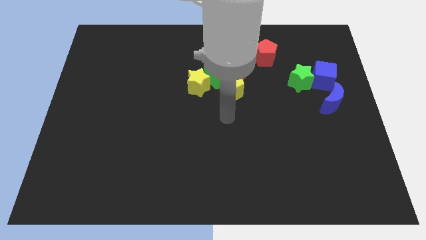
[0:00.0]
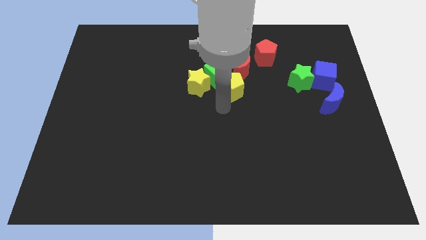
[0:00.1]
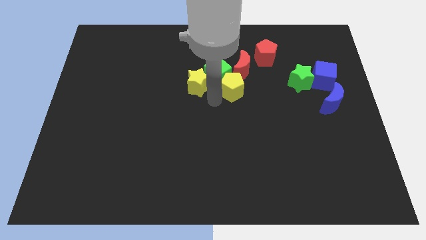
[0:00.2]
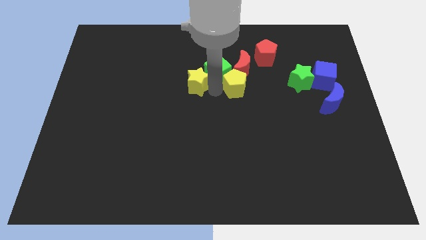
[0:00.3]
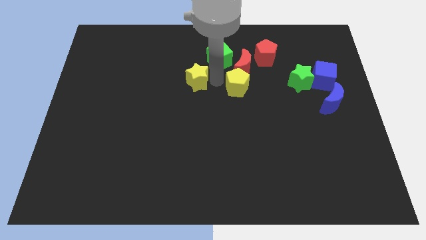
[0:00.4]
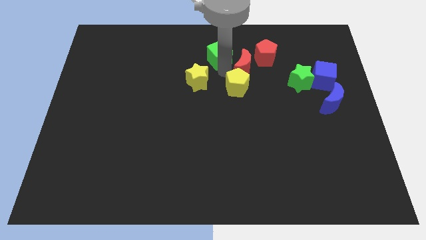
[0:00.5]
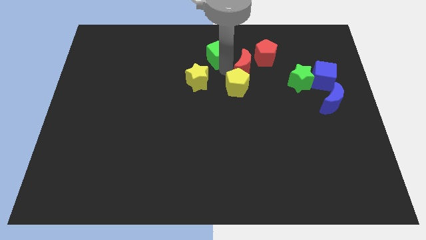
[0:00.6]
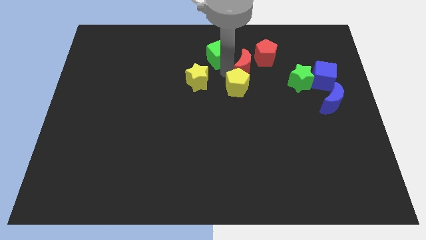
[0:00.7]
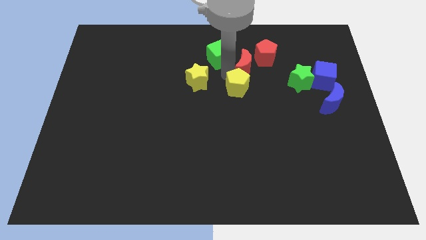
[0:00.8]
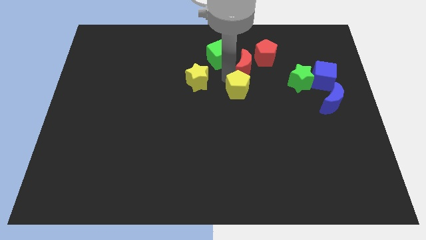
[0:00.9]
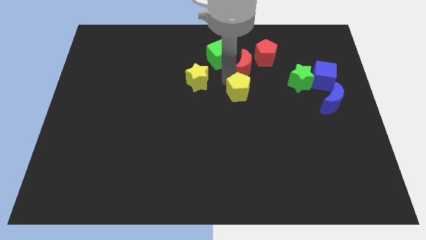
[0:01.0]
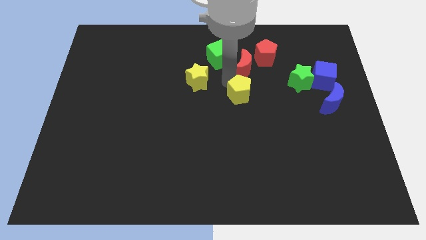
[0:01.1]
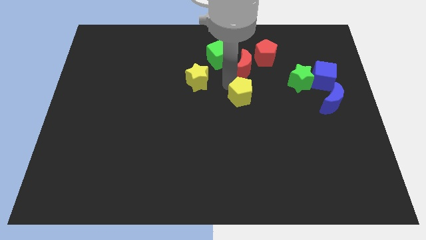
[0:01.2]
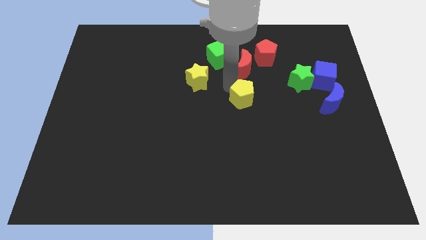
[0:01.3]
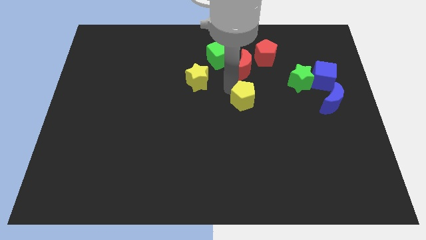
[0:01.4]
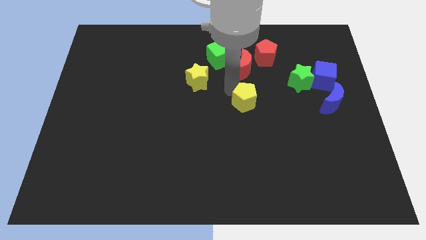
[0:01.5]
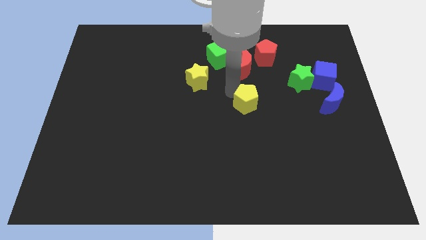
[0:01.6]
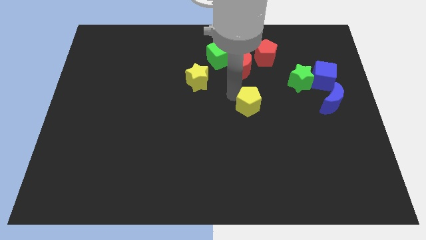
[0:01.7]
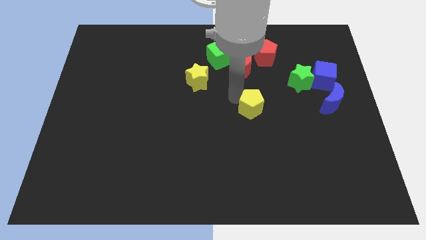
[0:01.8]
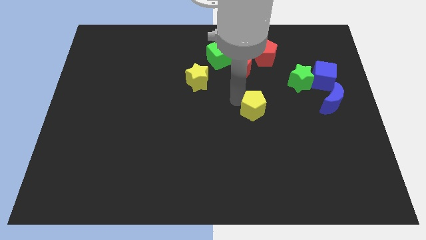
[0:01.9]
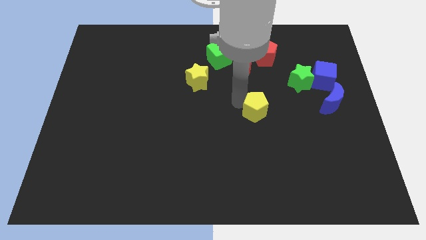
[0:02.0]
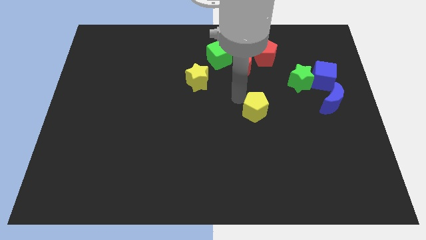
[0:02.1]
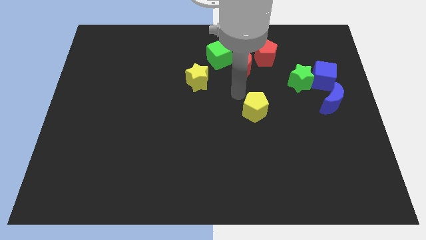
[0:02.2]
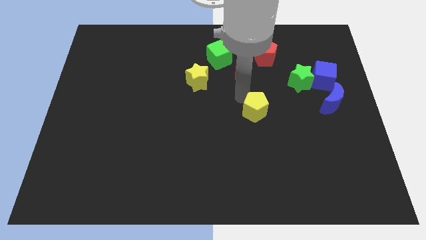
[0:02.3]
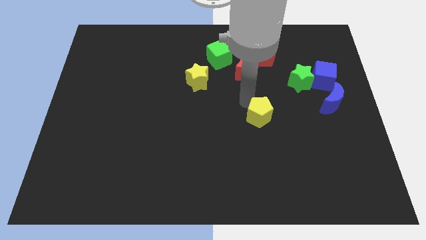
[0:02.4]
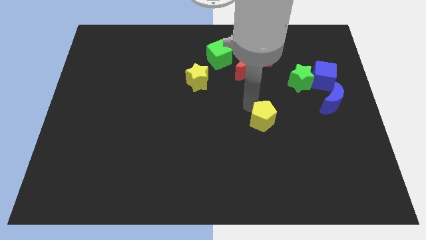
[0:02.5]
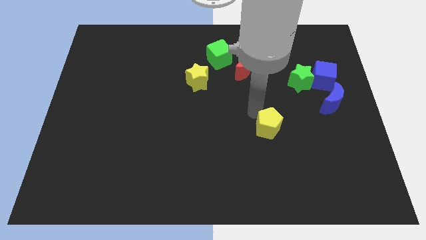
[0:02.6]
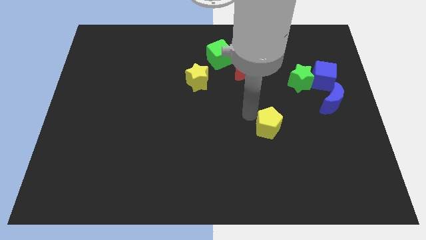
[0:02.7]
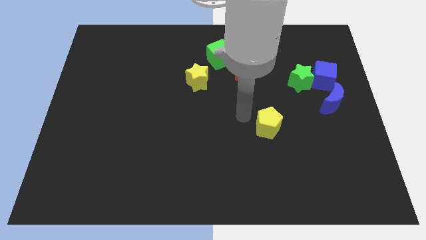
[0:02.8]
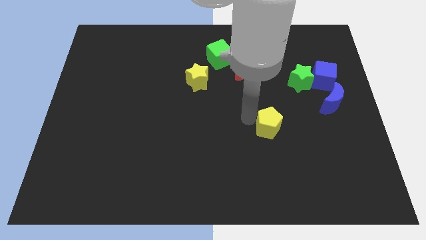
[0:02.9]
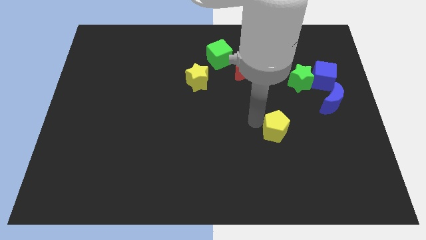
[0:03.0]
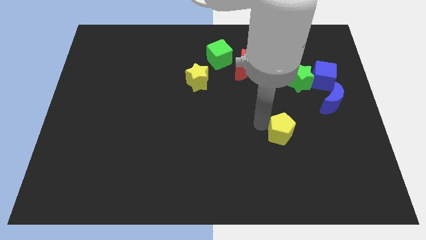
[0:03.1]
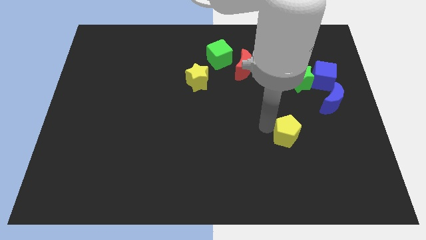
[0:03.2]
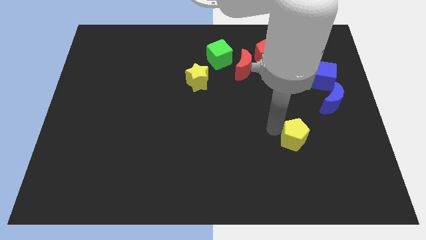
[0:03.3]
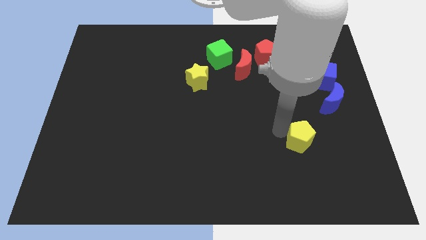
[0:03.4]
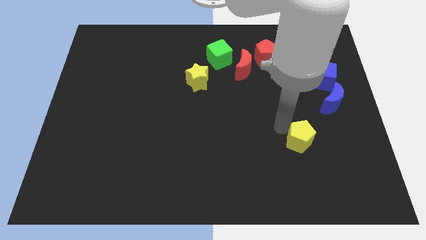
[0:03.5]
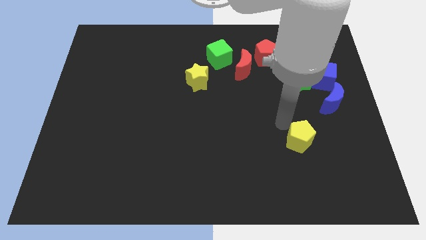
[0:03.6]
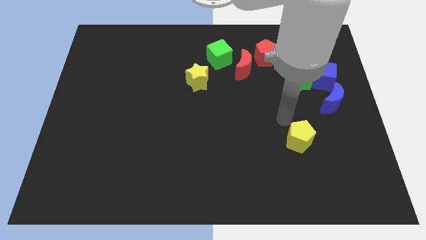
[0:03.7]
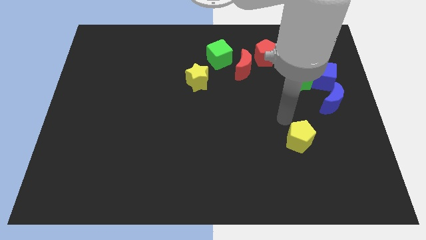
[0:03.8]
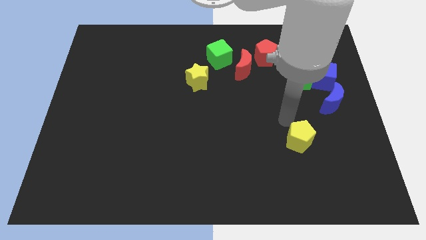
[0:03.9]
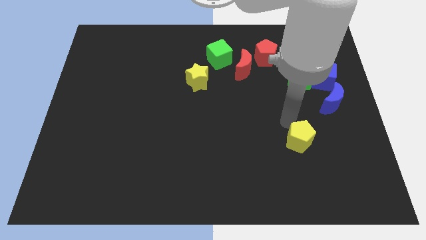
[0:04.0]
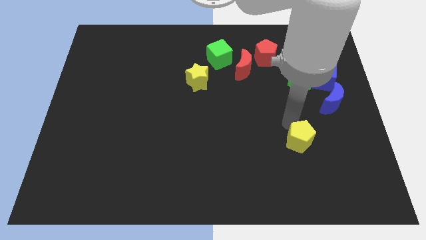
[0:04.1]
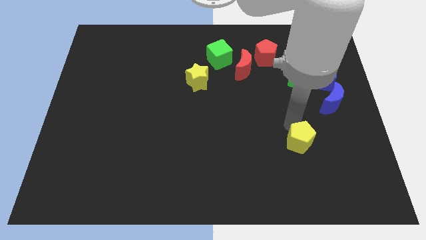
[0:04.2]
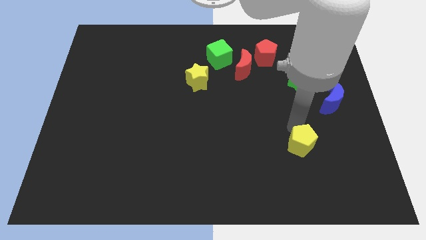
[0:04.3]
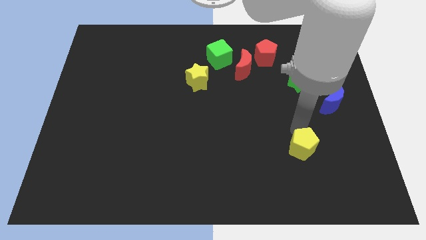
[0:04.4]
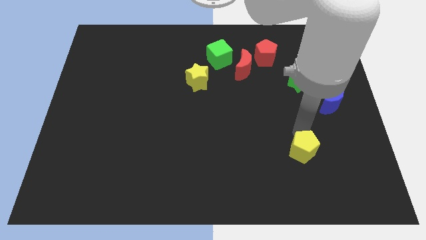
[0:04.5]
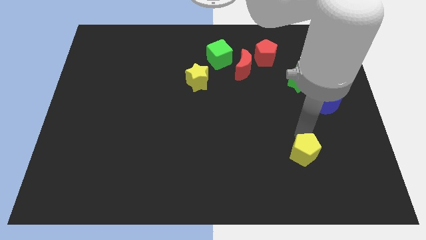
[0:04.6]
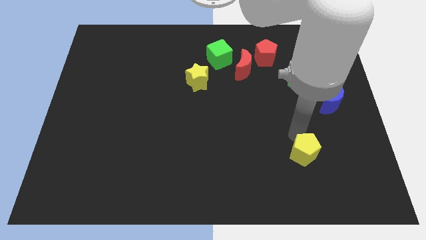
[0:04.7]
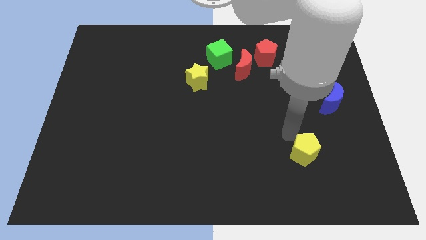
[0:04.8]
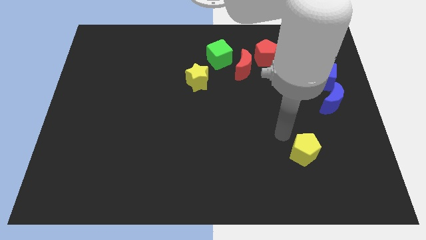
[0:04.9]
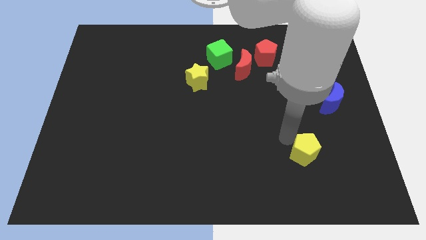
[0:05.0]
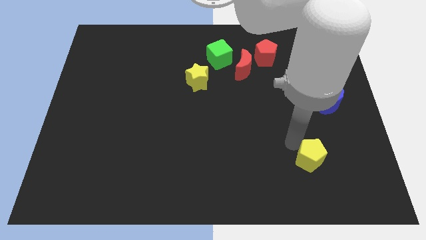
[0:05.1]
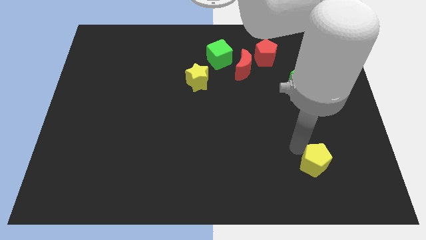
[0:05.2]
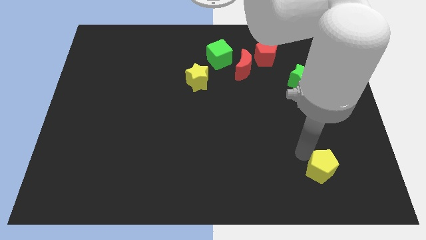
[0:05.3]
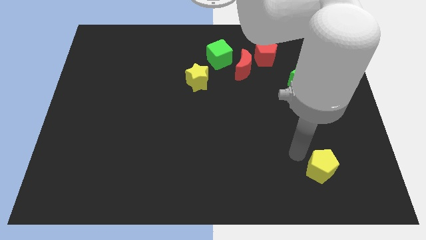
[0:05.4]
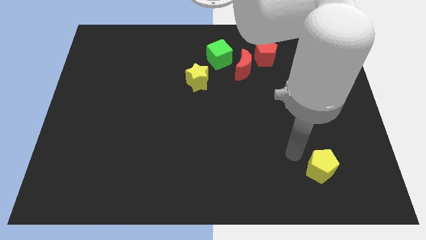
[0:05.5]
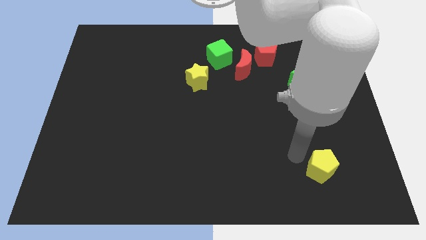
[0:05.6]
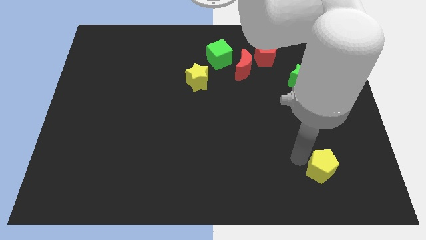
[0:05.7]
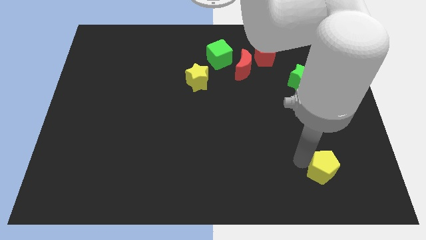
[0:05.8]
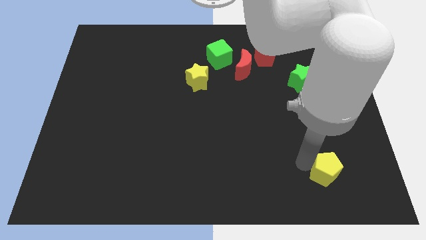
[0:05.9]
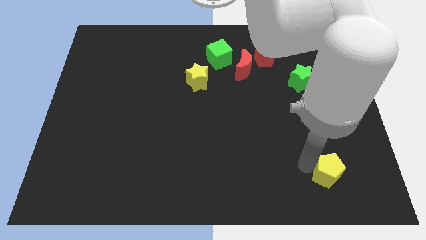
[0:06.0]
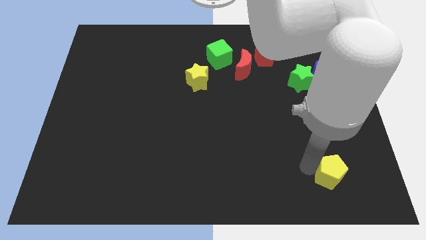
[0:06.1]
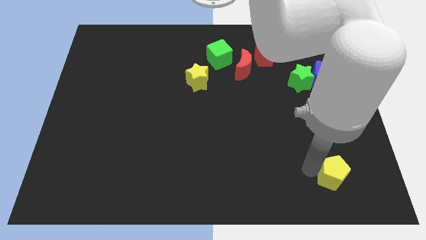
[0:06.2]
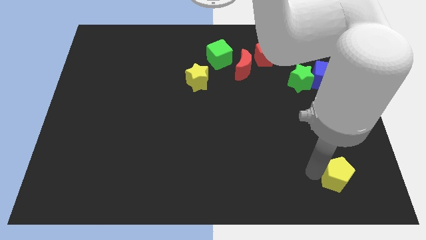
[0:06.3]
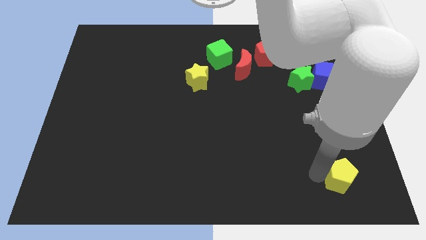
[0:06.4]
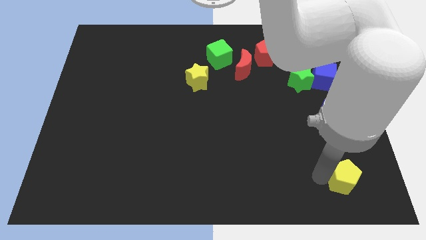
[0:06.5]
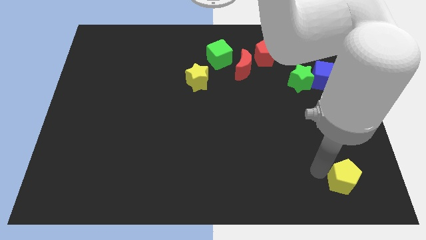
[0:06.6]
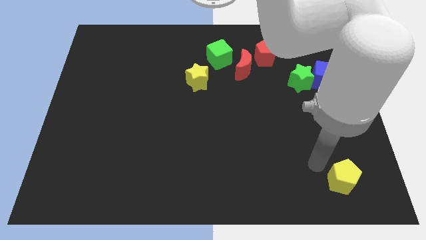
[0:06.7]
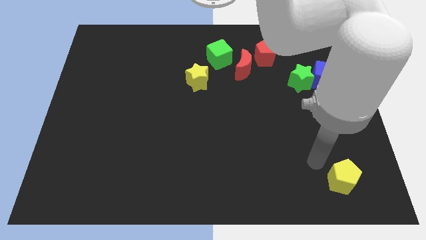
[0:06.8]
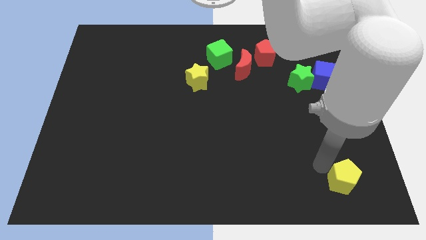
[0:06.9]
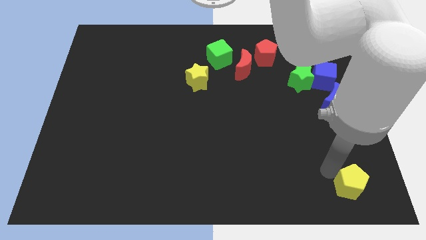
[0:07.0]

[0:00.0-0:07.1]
push the yellow pentagon to the bottom right
